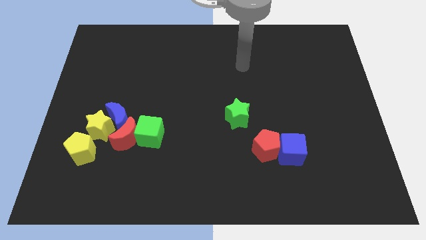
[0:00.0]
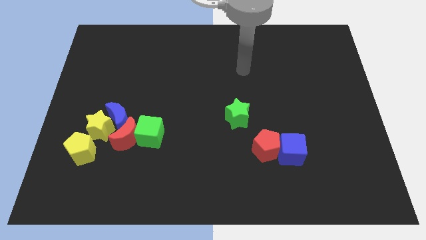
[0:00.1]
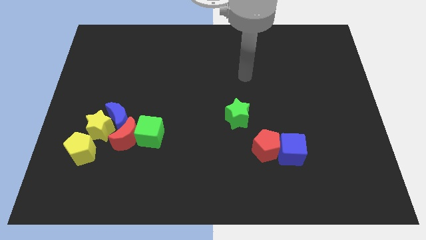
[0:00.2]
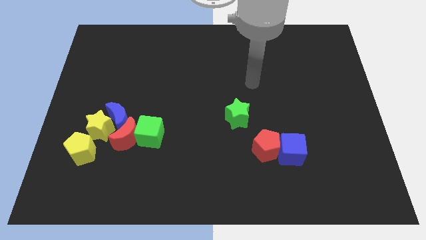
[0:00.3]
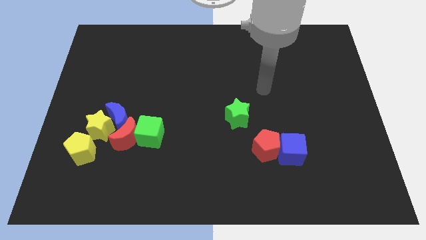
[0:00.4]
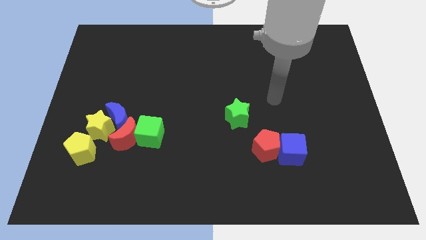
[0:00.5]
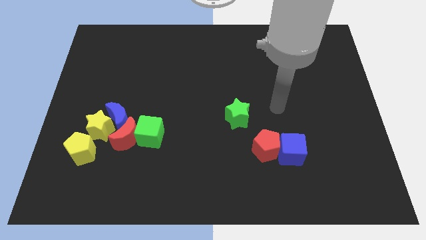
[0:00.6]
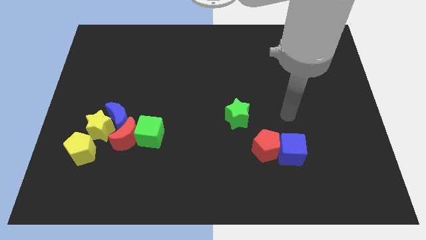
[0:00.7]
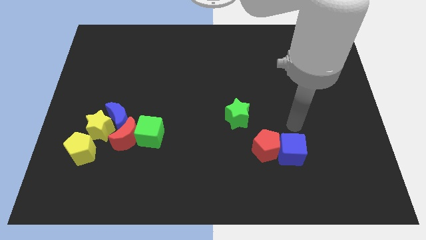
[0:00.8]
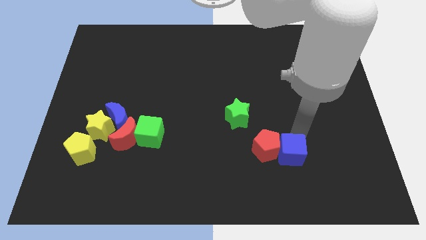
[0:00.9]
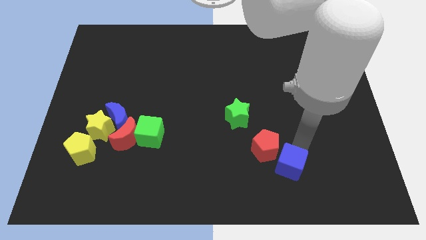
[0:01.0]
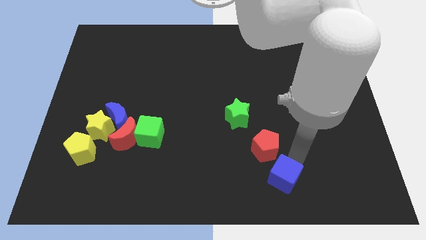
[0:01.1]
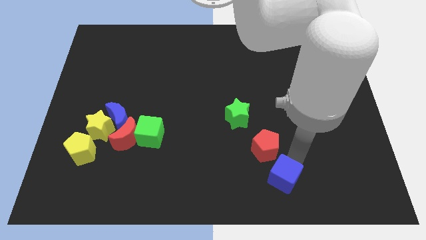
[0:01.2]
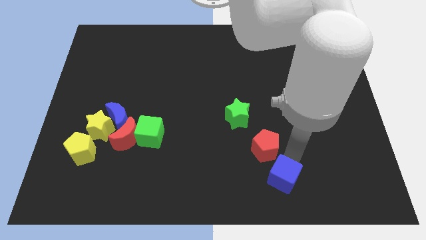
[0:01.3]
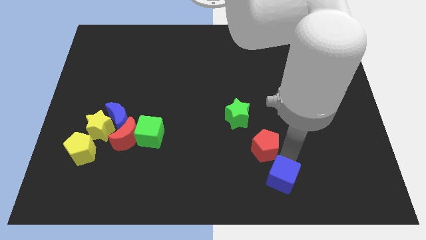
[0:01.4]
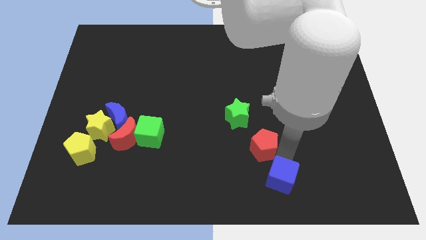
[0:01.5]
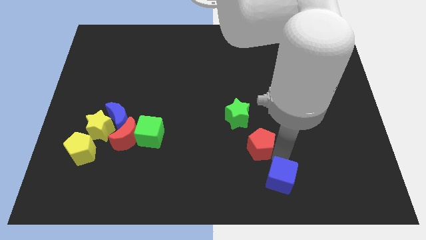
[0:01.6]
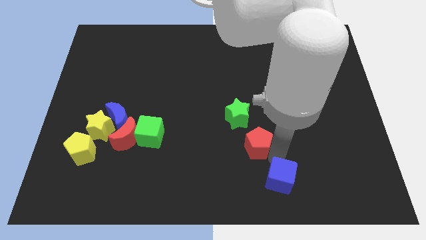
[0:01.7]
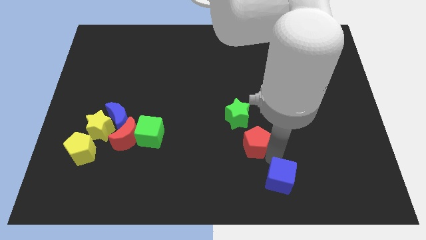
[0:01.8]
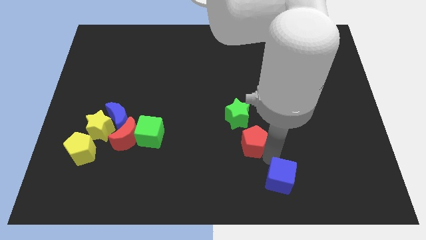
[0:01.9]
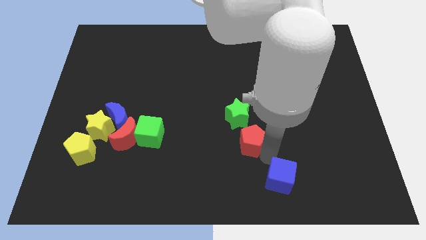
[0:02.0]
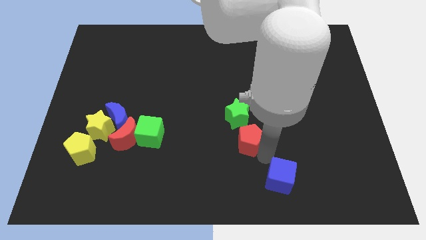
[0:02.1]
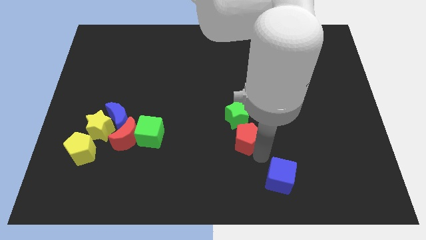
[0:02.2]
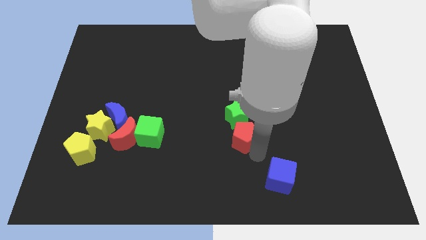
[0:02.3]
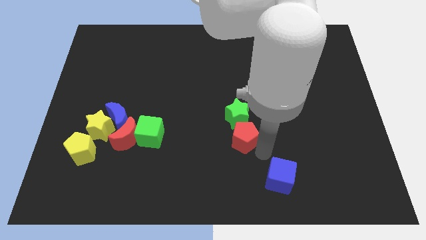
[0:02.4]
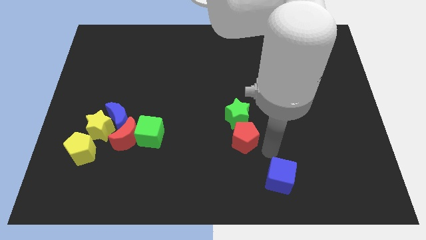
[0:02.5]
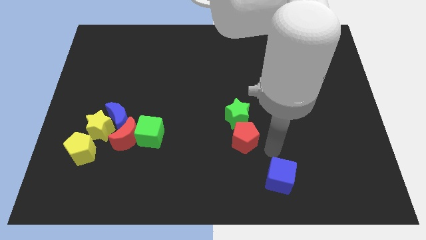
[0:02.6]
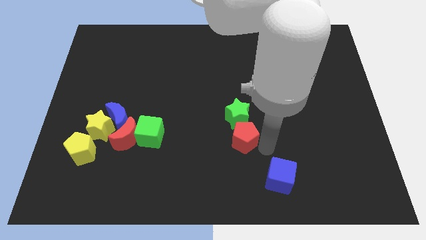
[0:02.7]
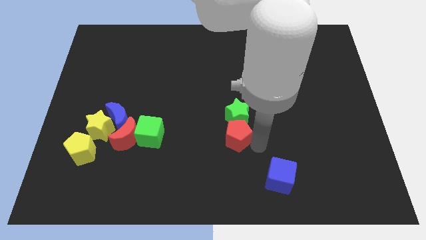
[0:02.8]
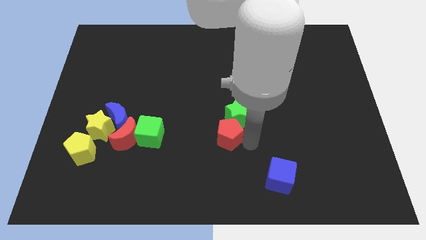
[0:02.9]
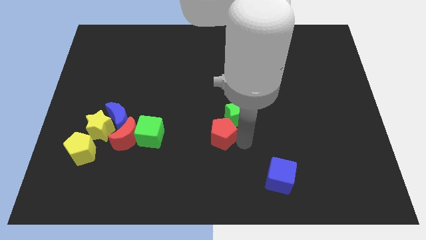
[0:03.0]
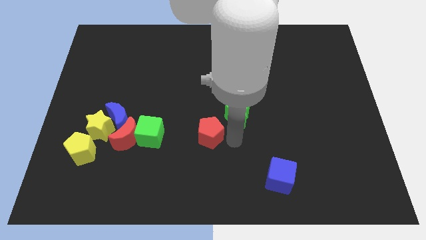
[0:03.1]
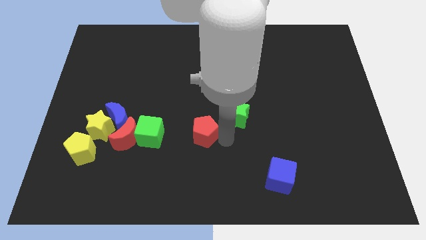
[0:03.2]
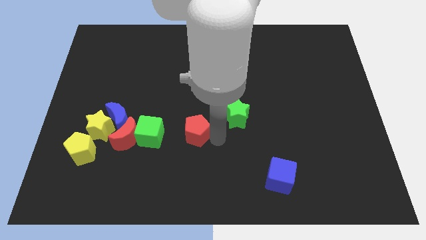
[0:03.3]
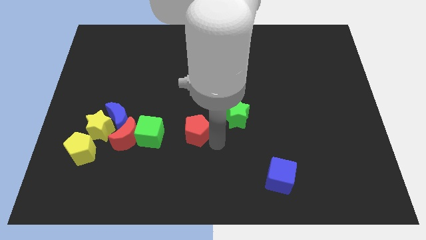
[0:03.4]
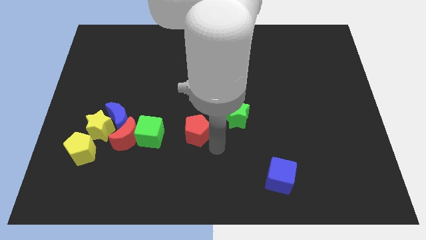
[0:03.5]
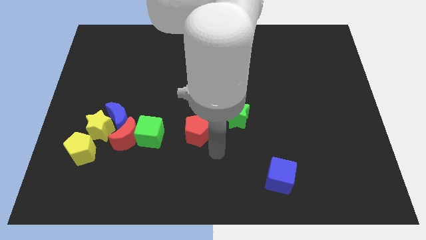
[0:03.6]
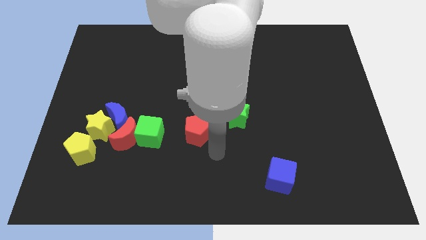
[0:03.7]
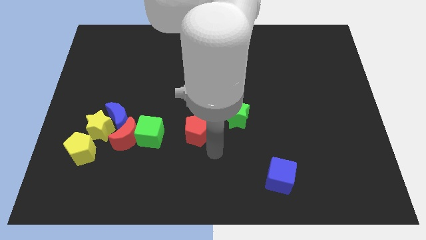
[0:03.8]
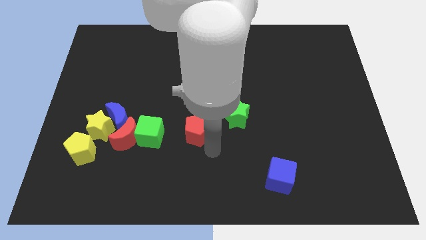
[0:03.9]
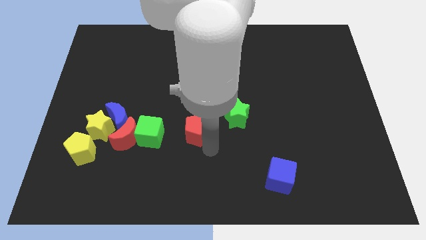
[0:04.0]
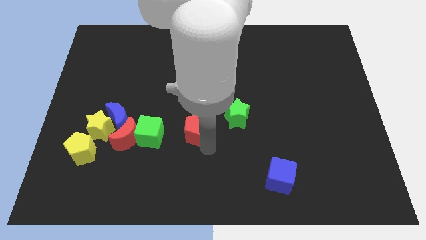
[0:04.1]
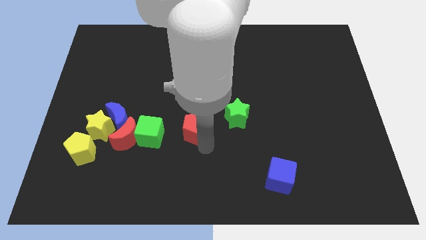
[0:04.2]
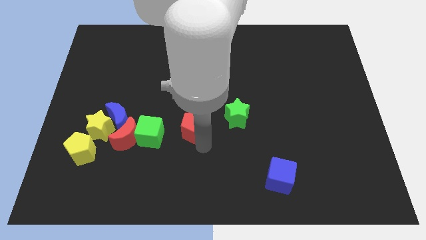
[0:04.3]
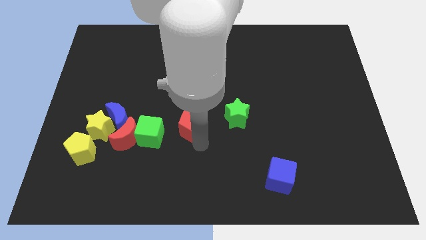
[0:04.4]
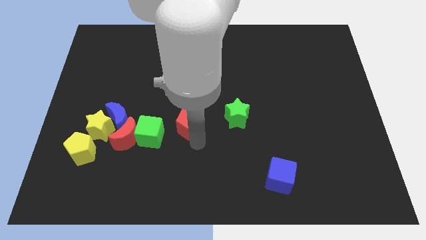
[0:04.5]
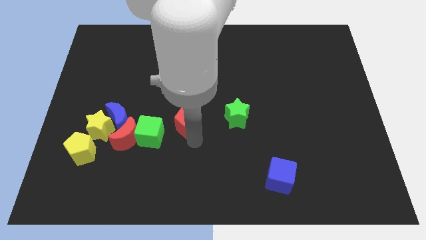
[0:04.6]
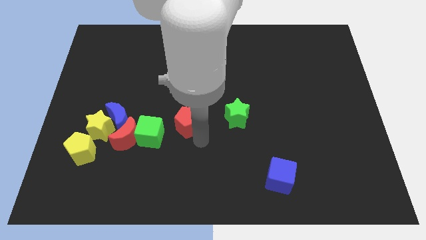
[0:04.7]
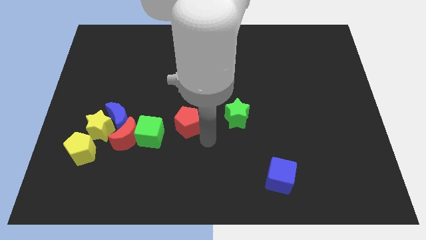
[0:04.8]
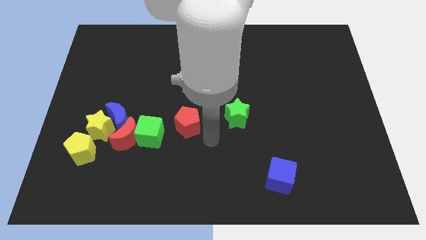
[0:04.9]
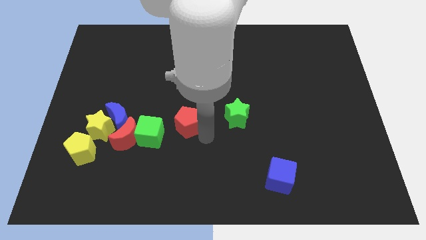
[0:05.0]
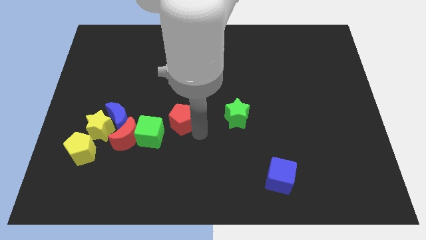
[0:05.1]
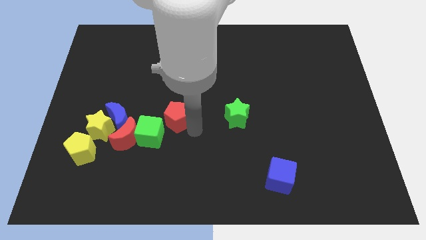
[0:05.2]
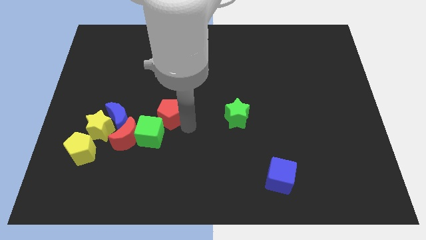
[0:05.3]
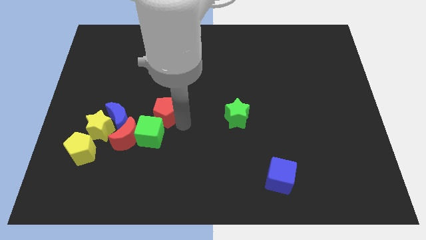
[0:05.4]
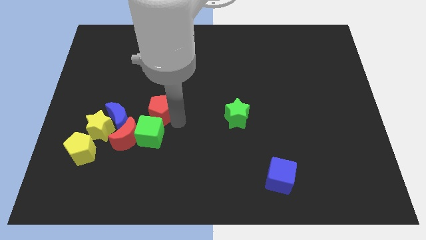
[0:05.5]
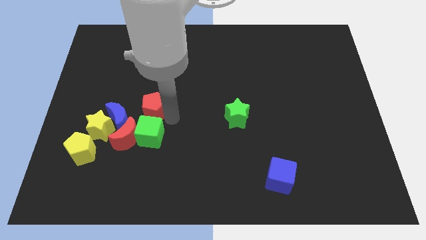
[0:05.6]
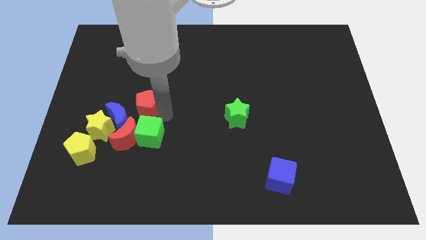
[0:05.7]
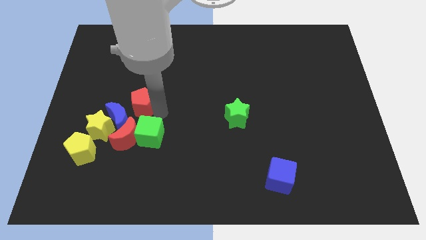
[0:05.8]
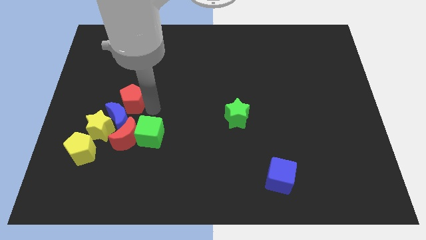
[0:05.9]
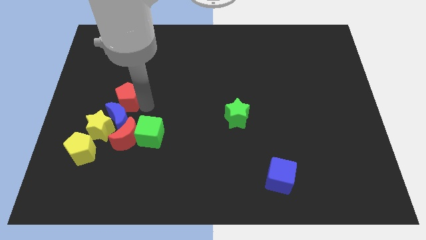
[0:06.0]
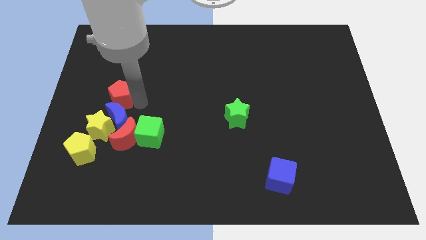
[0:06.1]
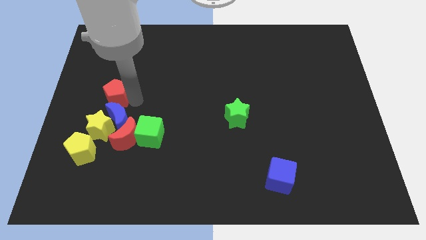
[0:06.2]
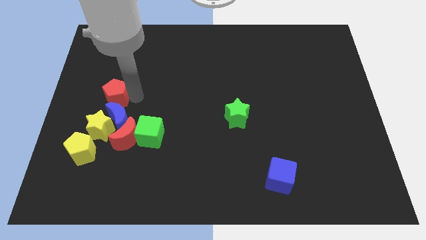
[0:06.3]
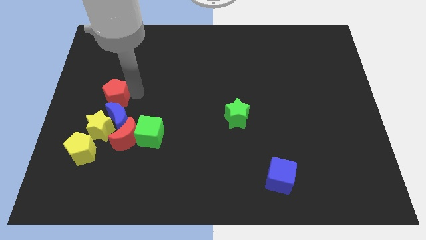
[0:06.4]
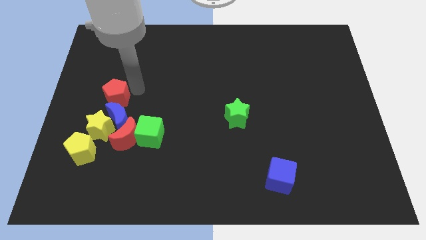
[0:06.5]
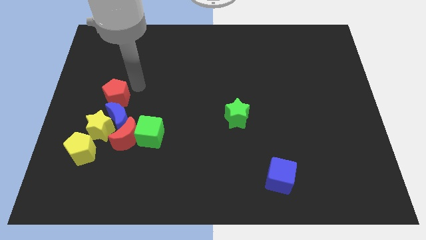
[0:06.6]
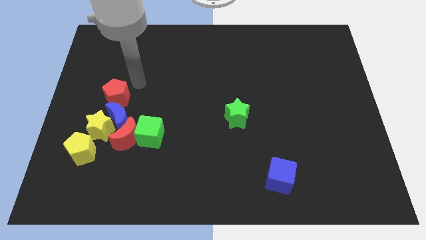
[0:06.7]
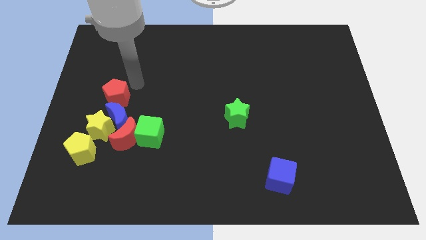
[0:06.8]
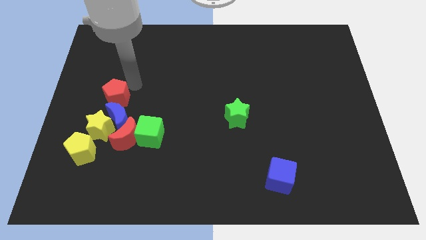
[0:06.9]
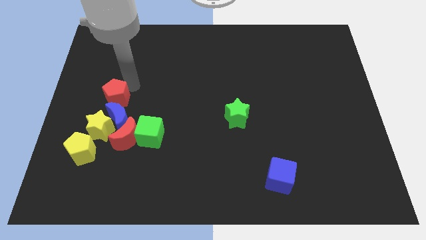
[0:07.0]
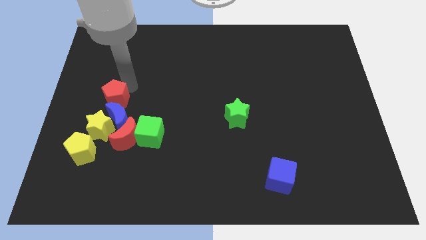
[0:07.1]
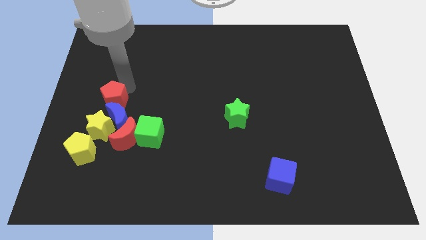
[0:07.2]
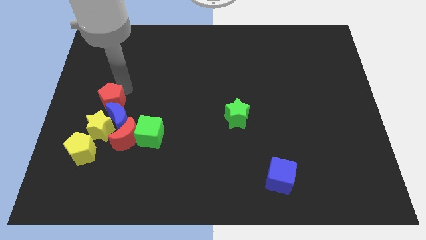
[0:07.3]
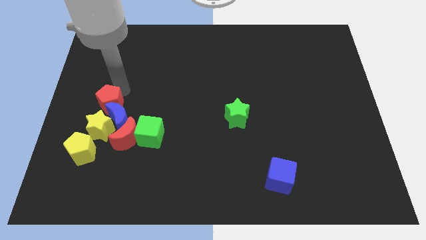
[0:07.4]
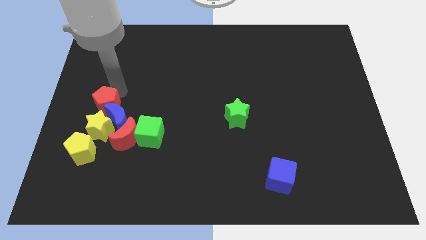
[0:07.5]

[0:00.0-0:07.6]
slide the red pentagon to the left side of the board
